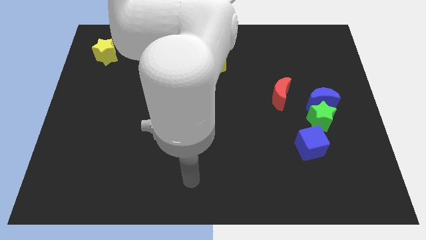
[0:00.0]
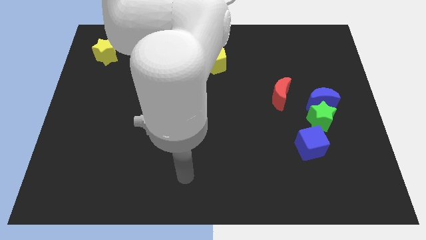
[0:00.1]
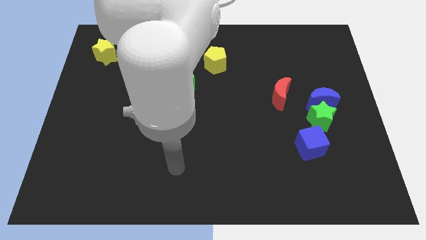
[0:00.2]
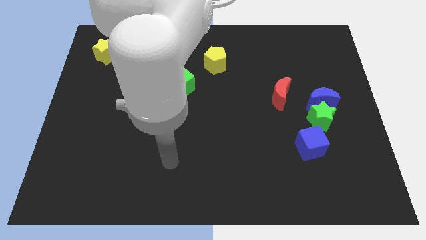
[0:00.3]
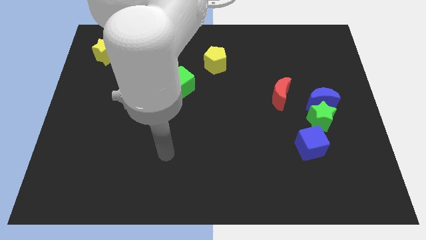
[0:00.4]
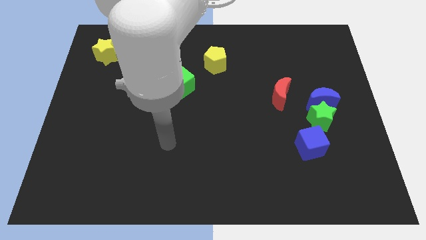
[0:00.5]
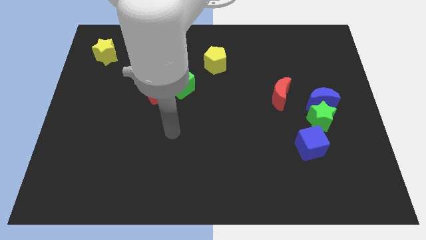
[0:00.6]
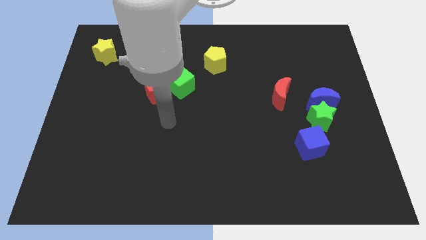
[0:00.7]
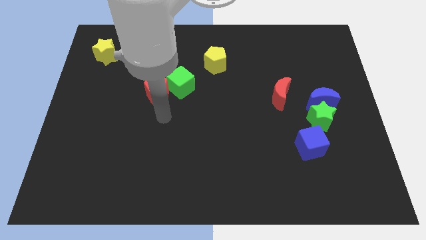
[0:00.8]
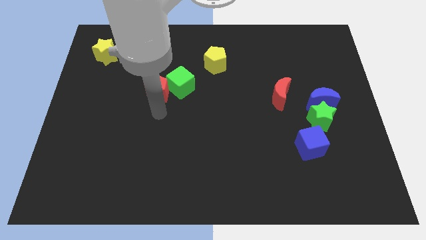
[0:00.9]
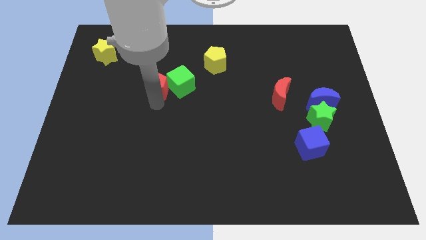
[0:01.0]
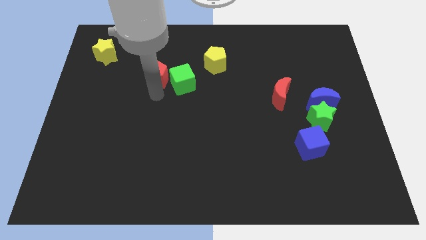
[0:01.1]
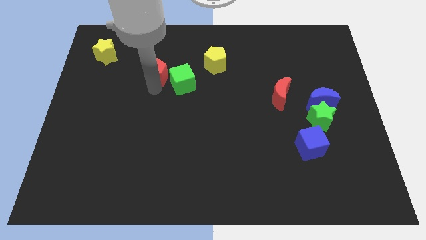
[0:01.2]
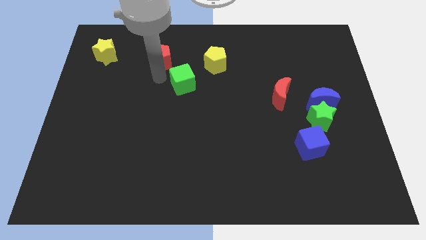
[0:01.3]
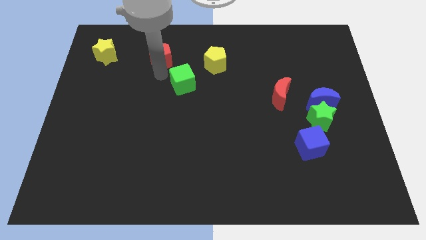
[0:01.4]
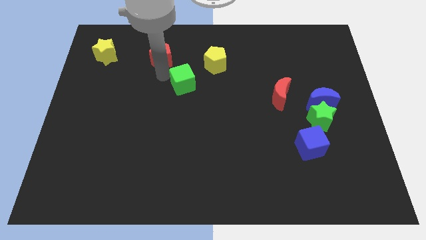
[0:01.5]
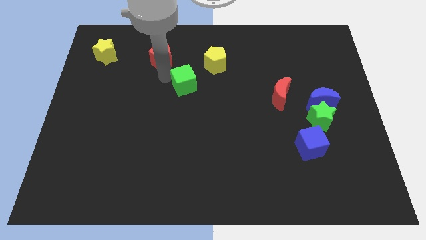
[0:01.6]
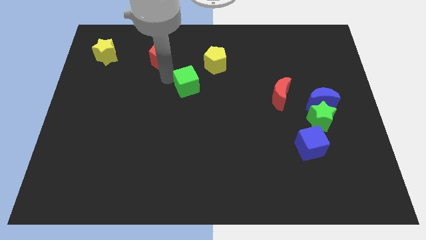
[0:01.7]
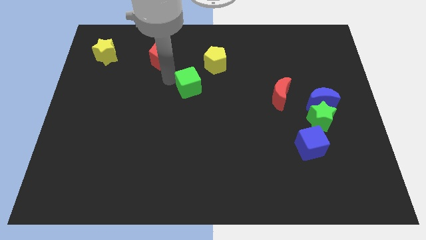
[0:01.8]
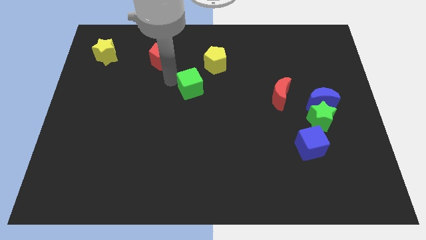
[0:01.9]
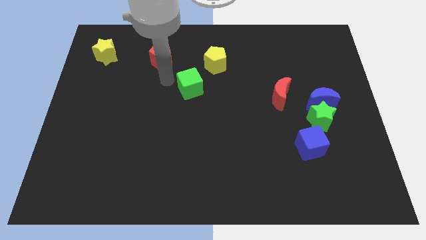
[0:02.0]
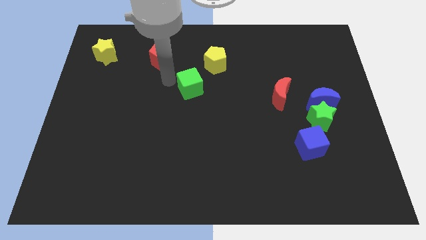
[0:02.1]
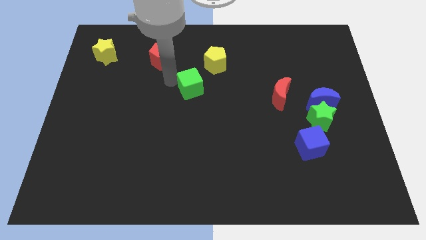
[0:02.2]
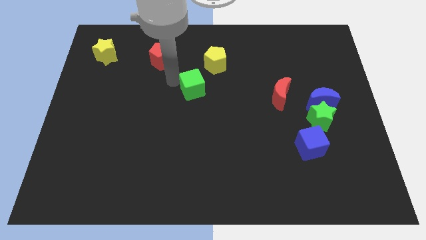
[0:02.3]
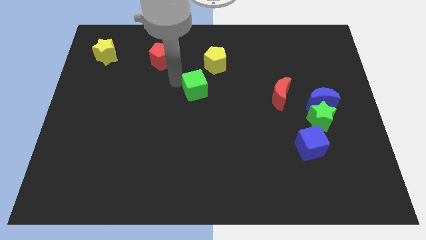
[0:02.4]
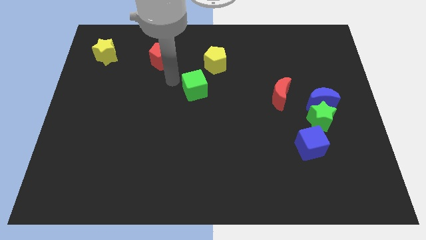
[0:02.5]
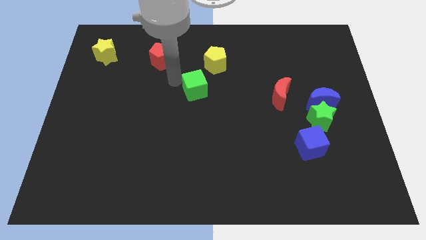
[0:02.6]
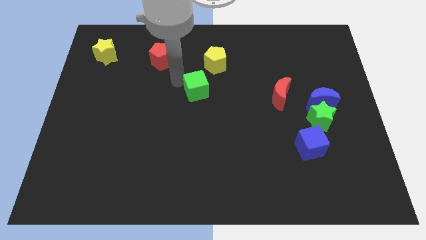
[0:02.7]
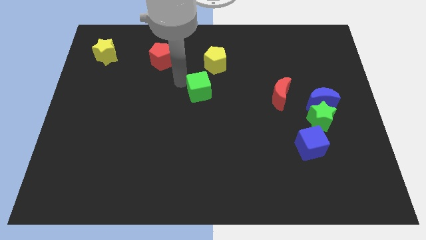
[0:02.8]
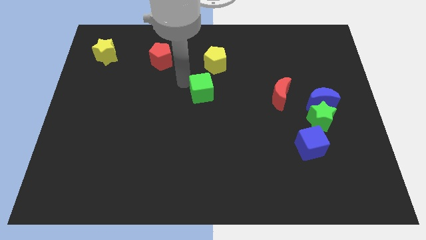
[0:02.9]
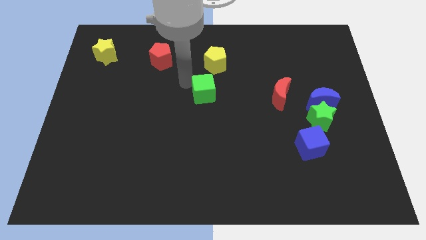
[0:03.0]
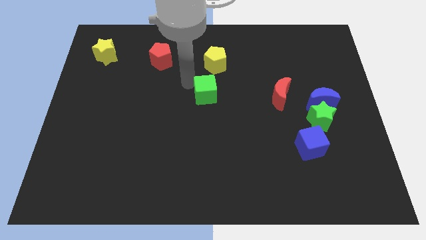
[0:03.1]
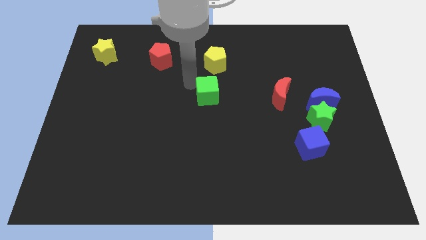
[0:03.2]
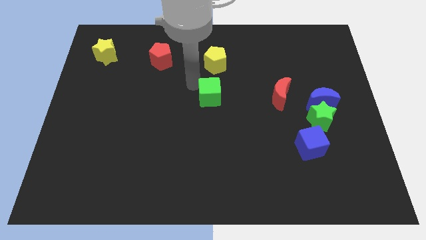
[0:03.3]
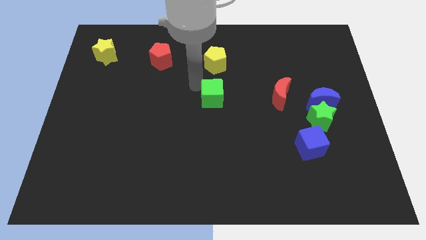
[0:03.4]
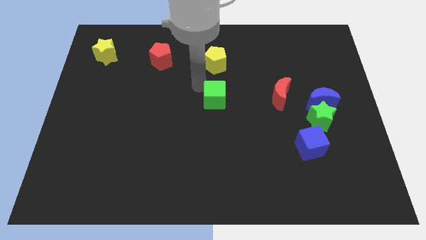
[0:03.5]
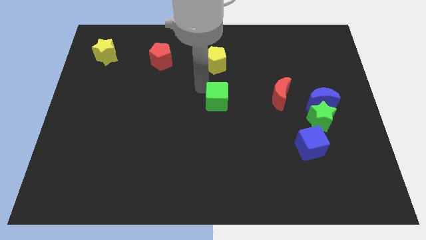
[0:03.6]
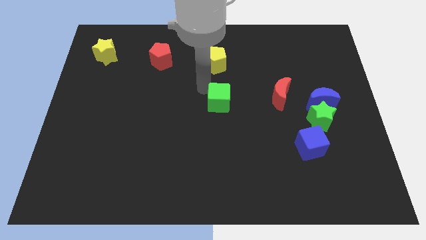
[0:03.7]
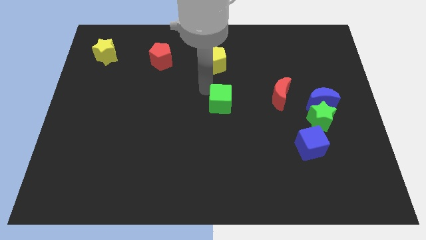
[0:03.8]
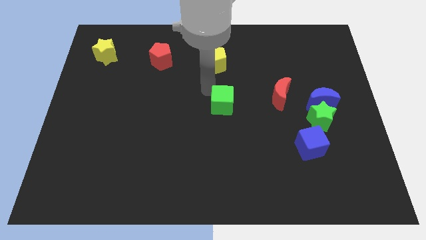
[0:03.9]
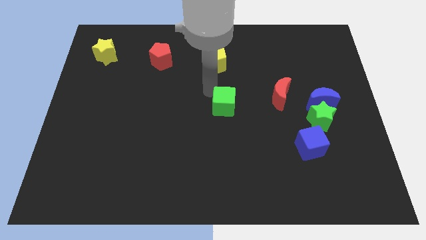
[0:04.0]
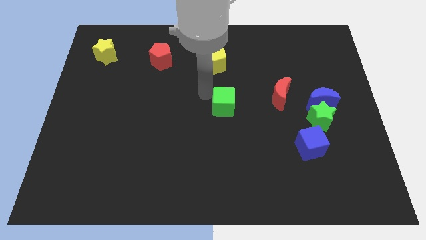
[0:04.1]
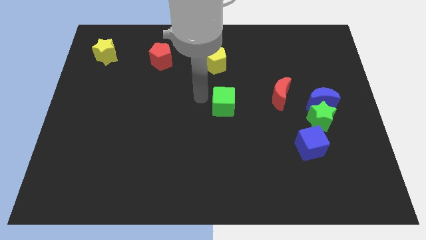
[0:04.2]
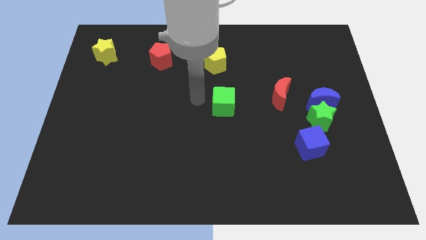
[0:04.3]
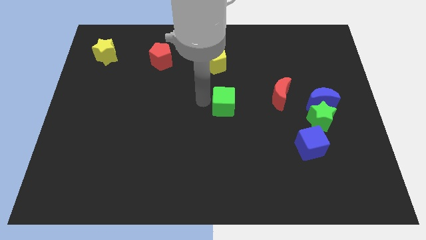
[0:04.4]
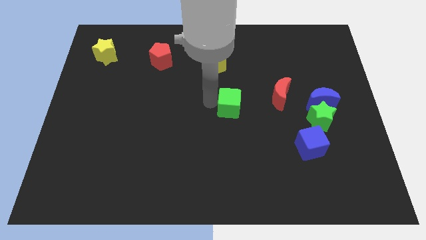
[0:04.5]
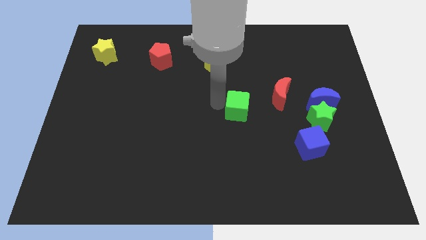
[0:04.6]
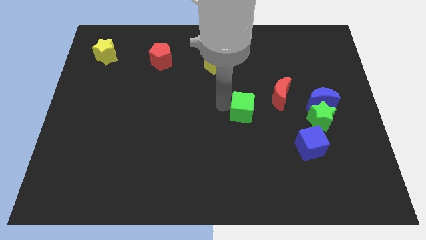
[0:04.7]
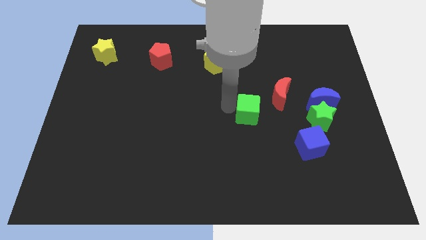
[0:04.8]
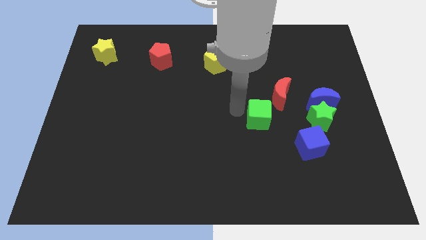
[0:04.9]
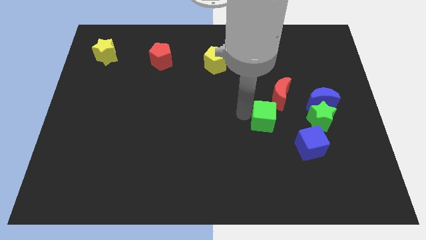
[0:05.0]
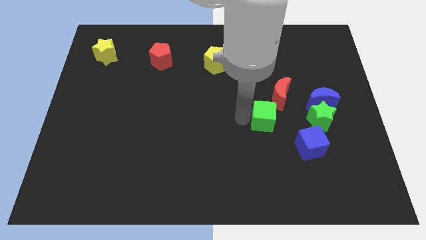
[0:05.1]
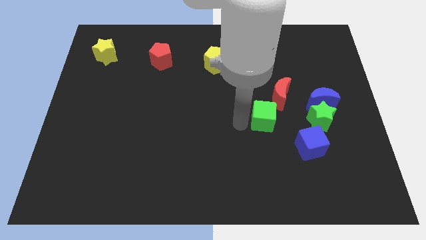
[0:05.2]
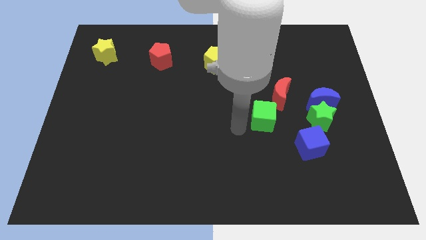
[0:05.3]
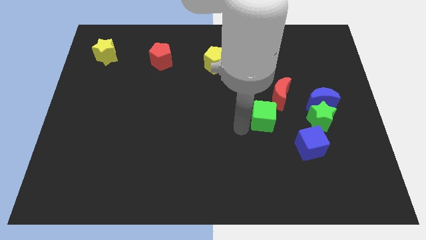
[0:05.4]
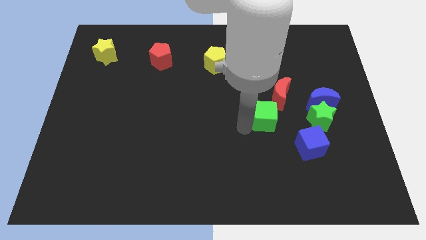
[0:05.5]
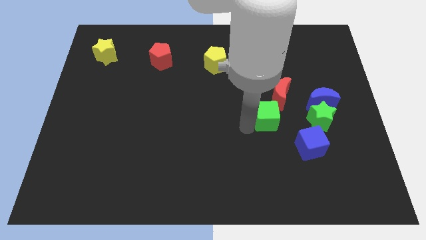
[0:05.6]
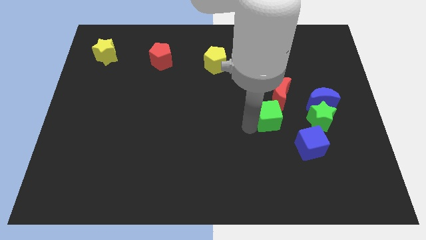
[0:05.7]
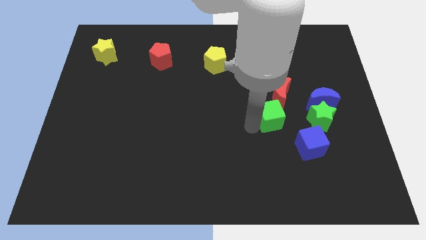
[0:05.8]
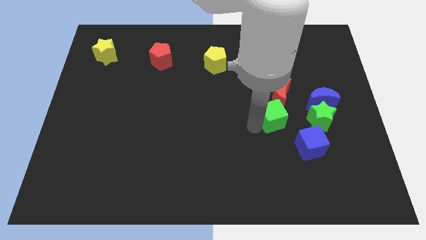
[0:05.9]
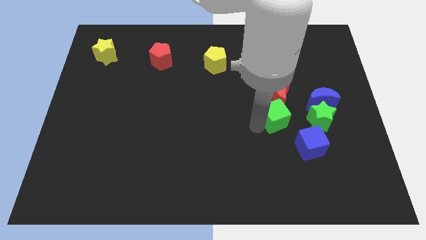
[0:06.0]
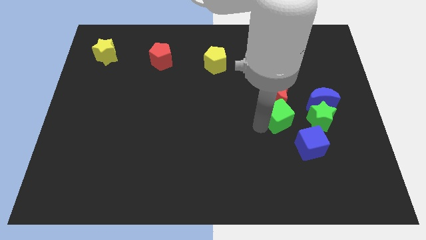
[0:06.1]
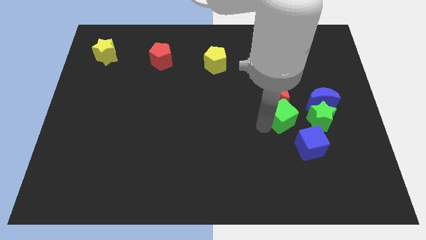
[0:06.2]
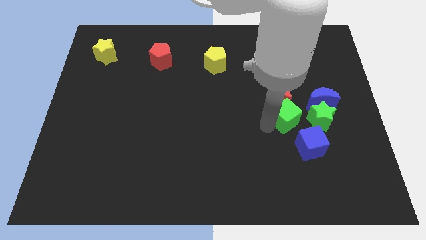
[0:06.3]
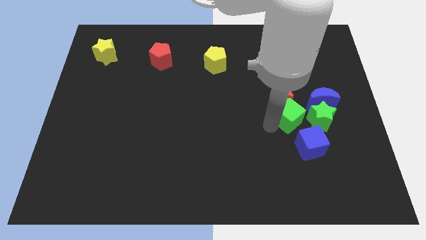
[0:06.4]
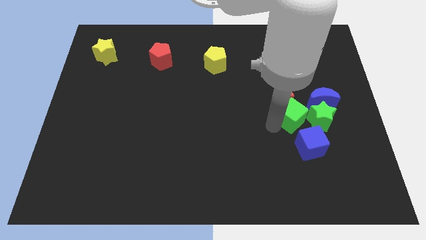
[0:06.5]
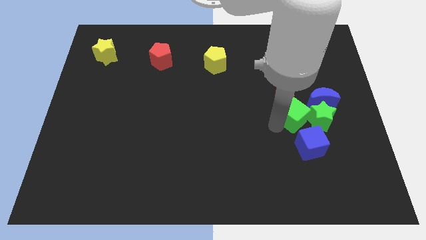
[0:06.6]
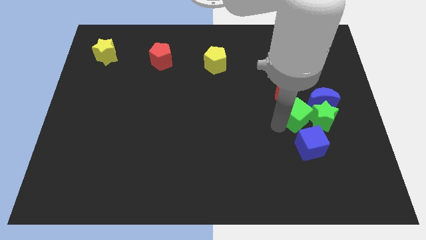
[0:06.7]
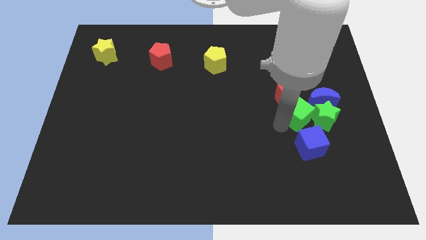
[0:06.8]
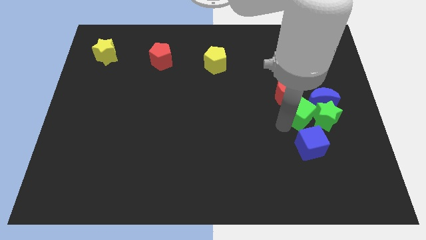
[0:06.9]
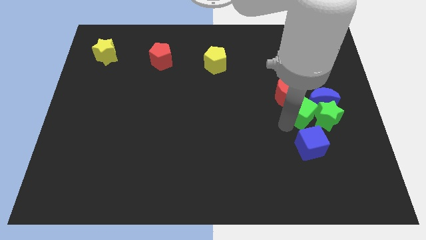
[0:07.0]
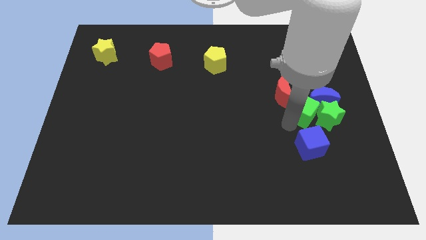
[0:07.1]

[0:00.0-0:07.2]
slide the green cube close to the blue moon
